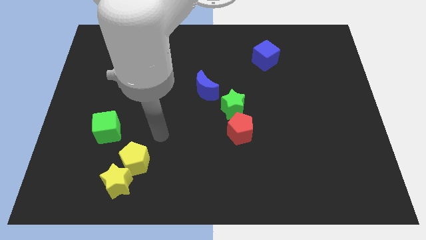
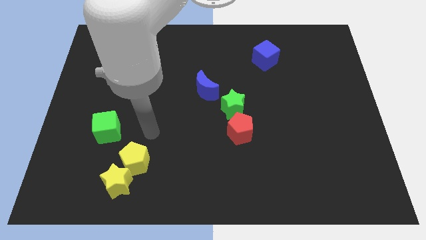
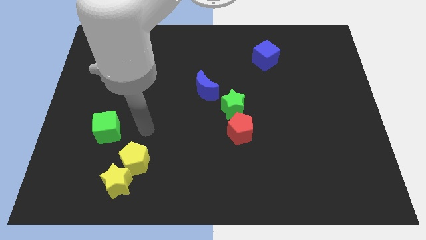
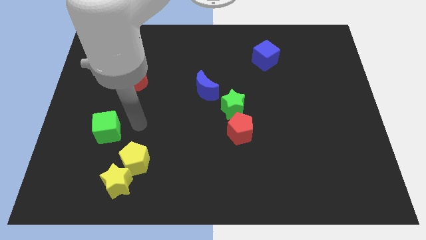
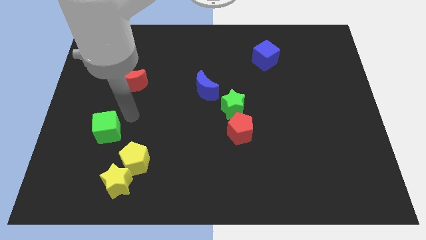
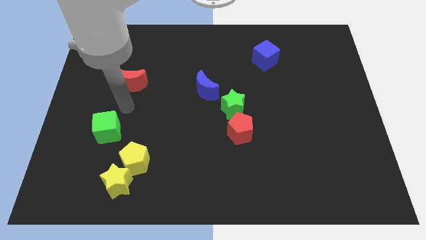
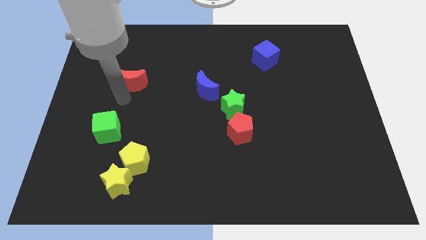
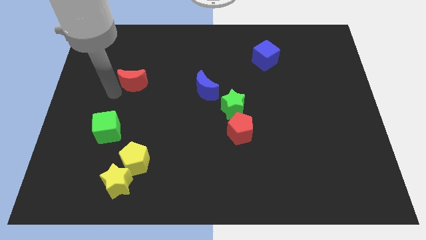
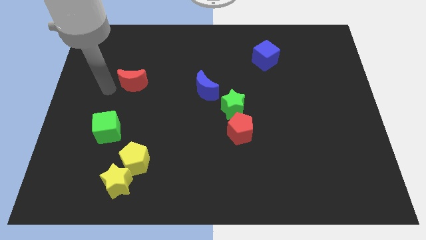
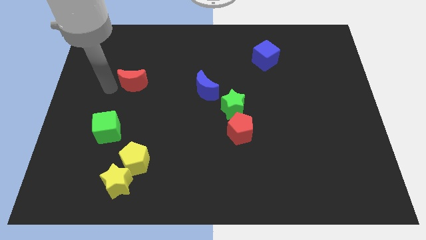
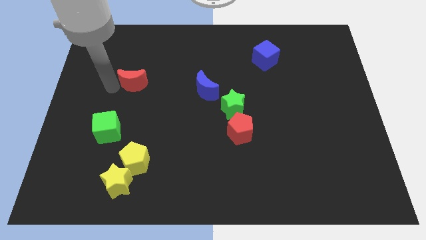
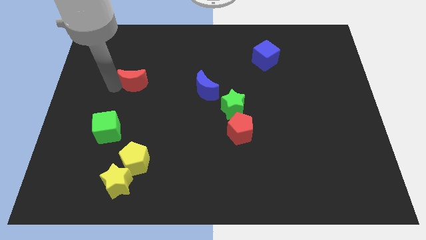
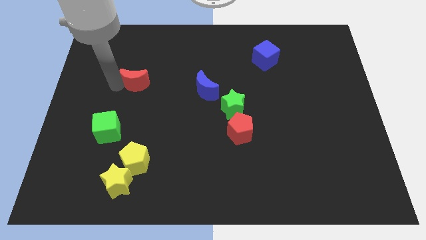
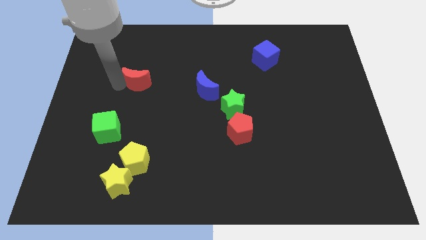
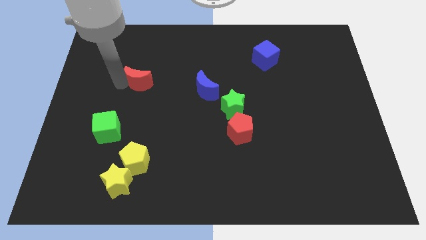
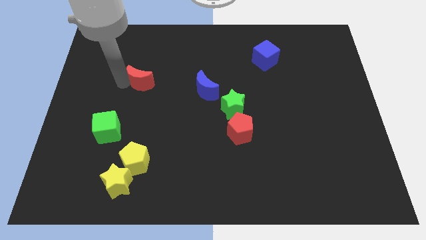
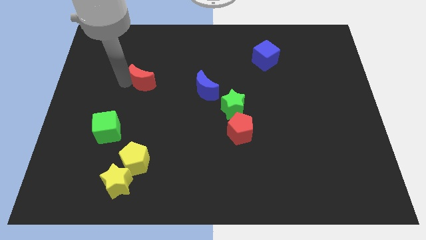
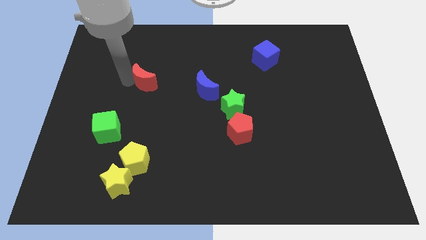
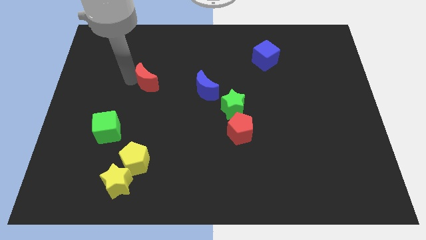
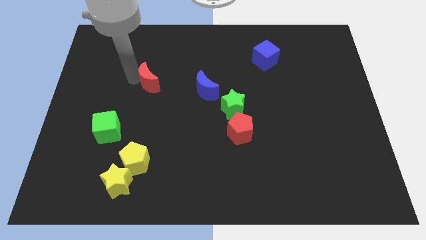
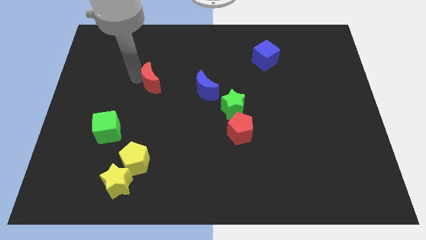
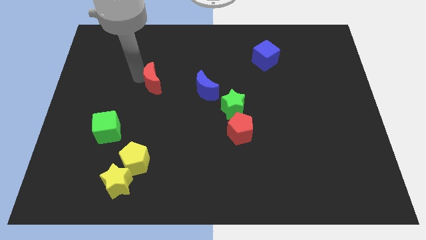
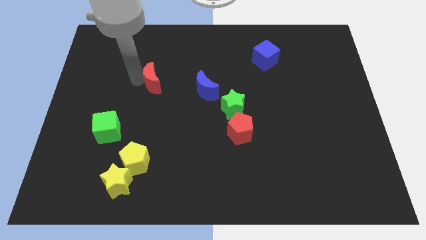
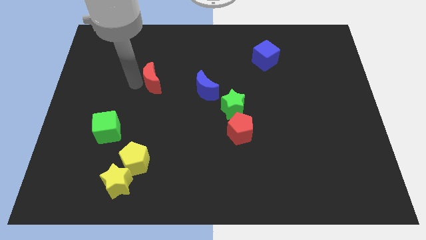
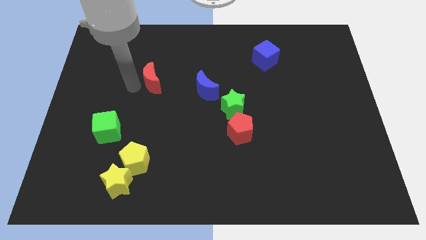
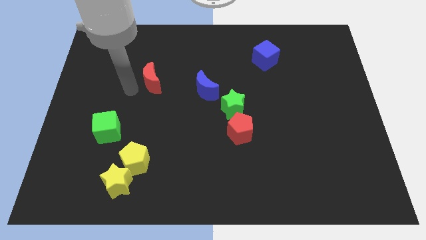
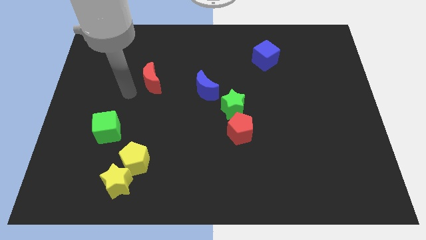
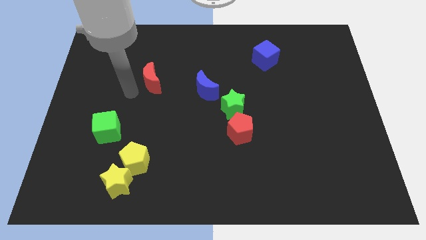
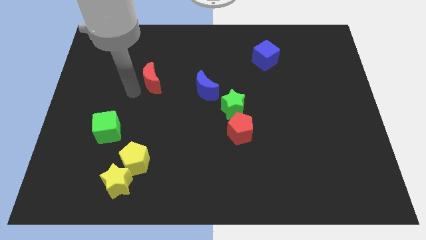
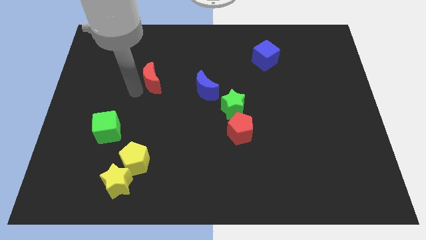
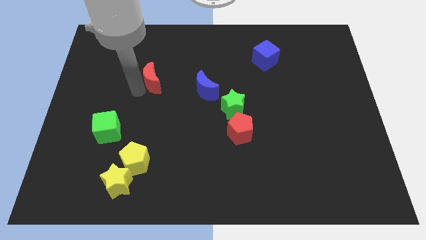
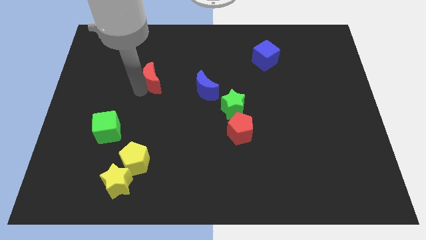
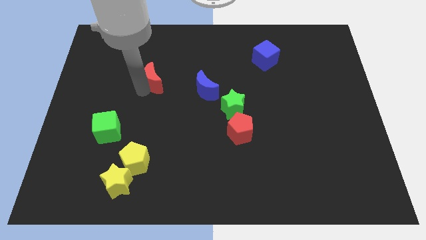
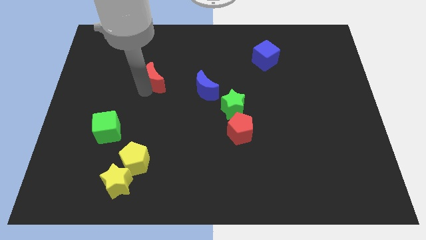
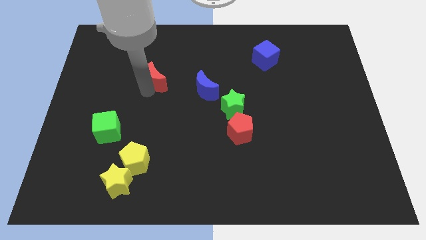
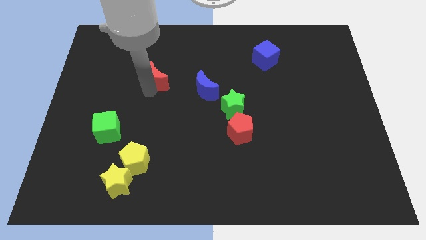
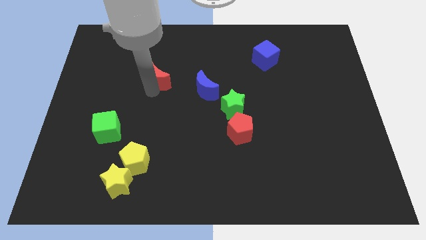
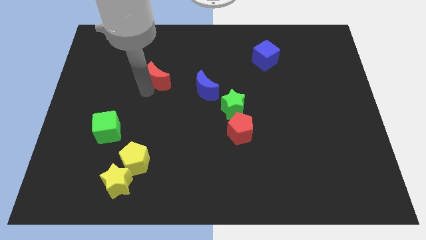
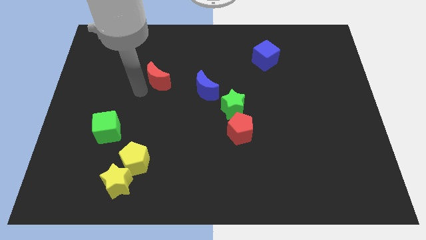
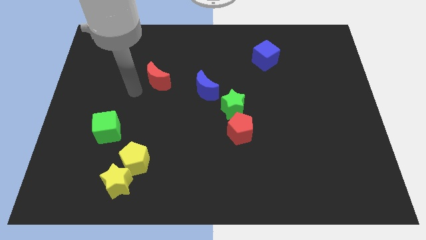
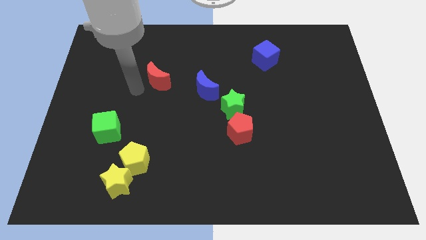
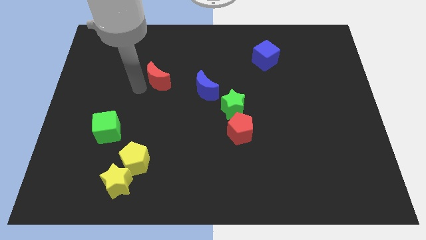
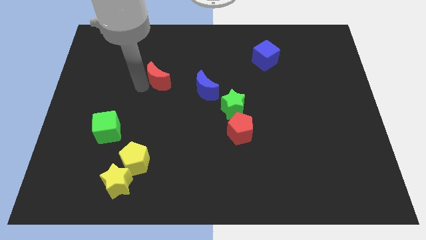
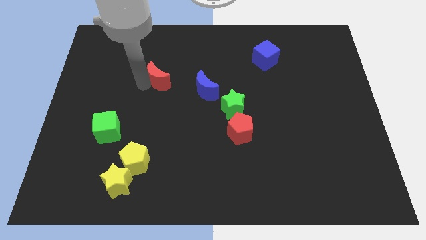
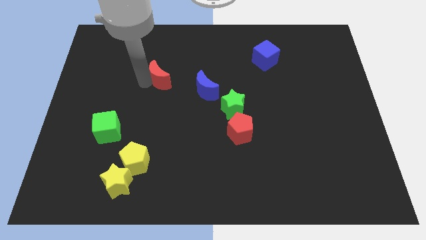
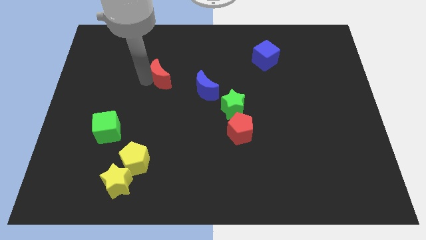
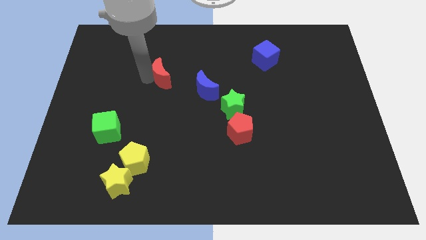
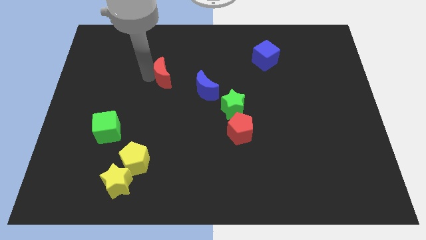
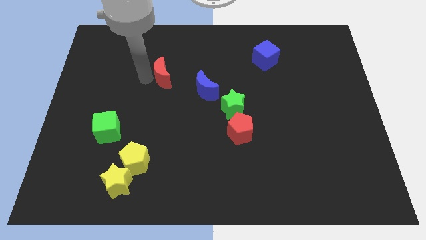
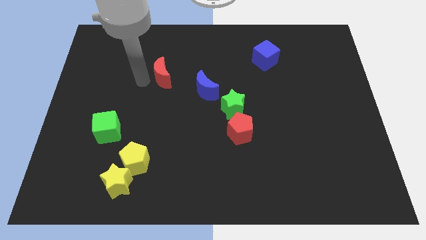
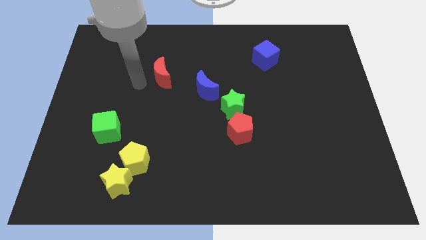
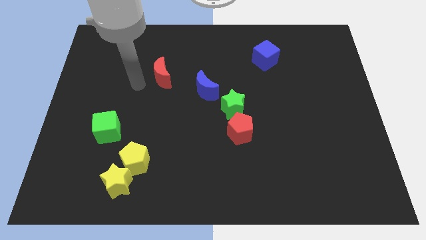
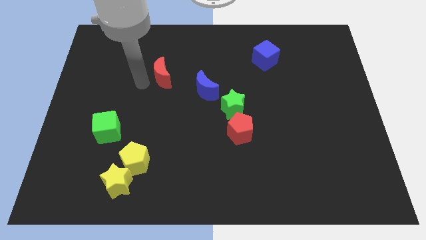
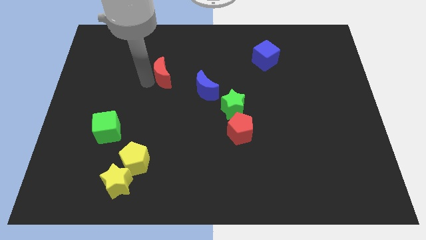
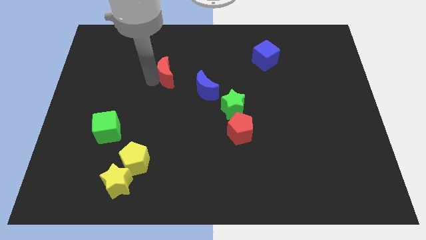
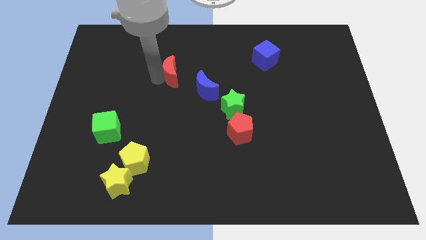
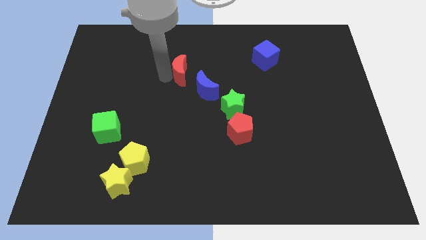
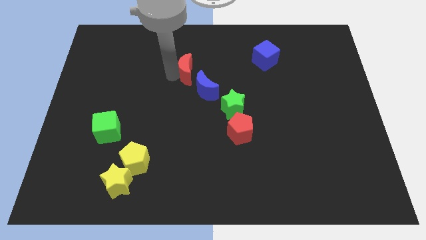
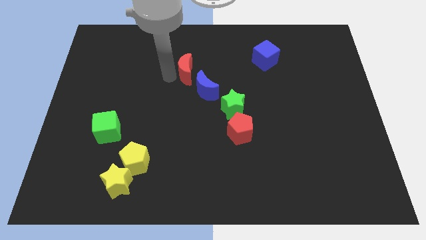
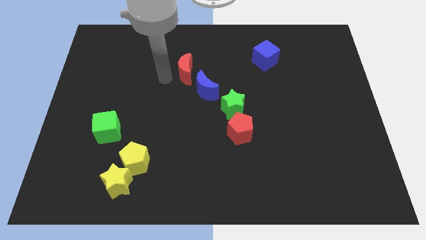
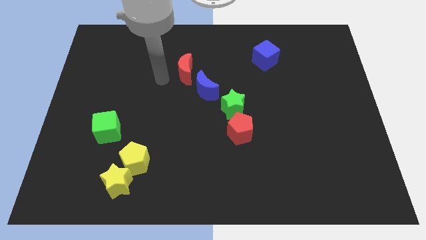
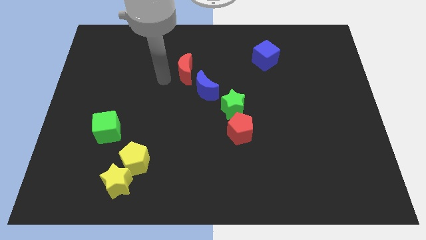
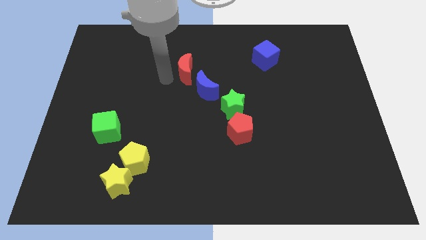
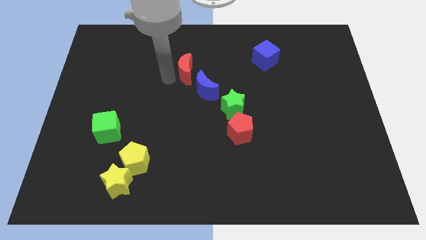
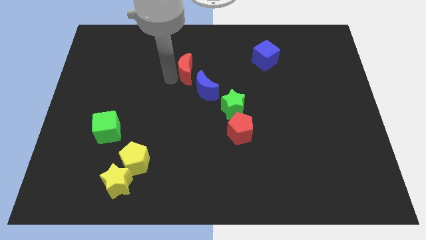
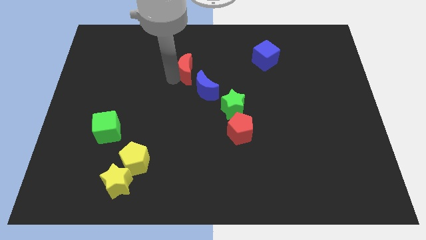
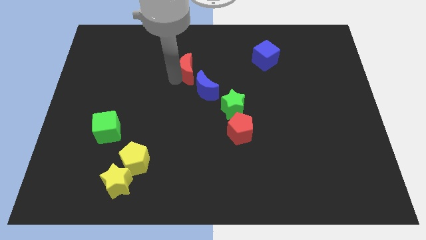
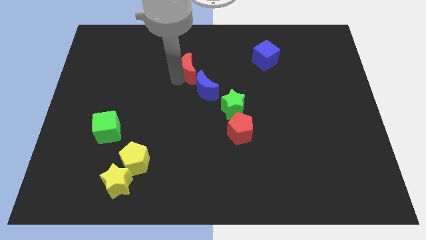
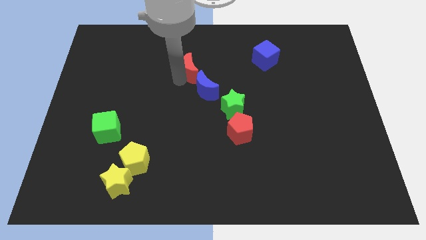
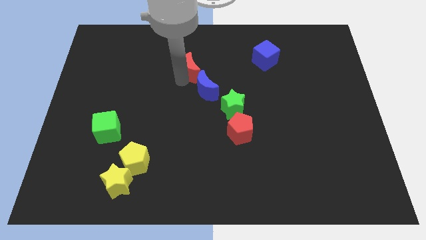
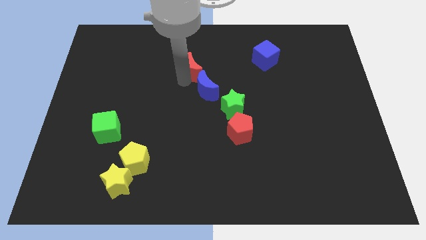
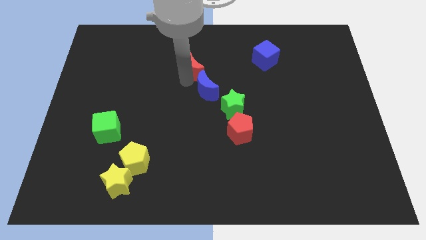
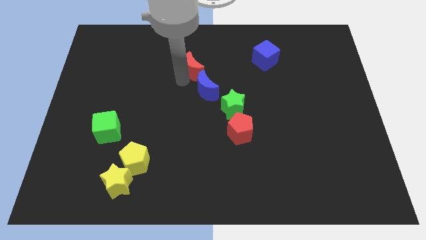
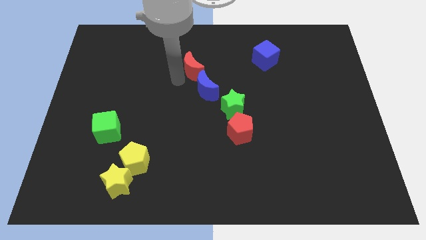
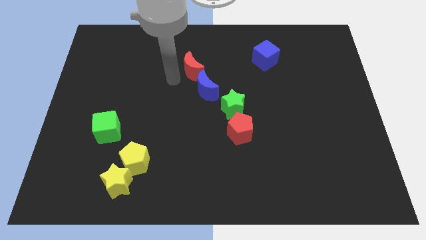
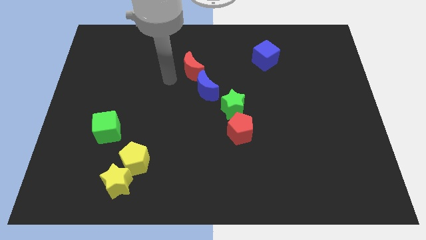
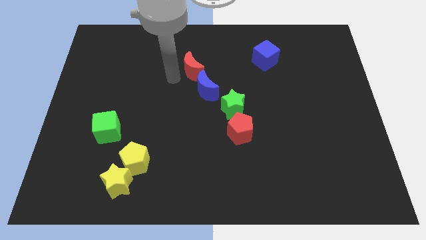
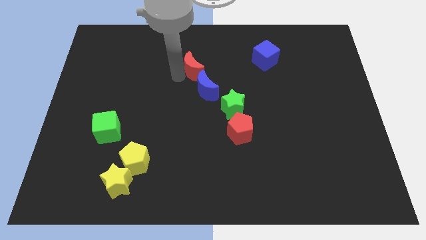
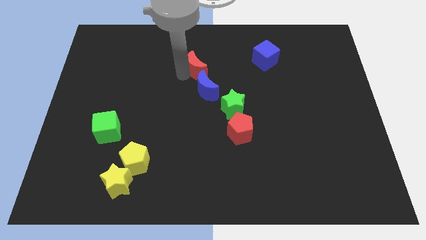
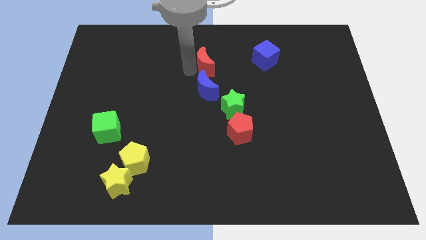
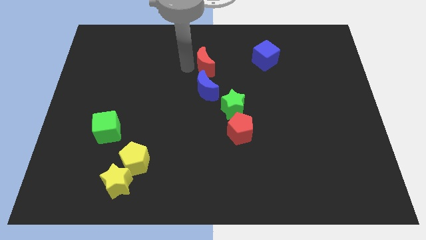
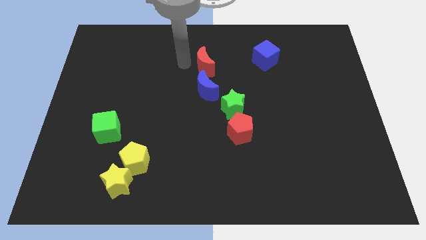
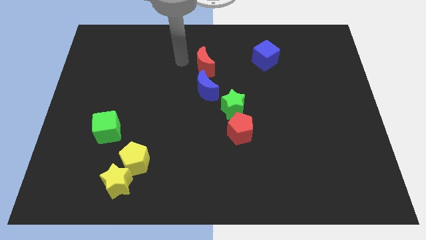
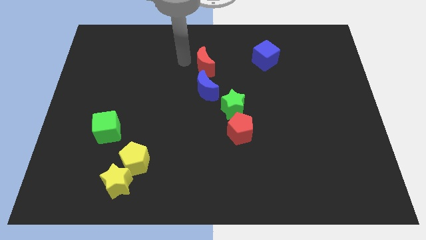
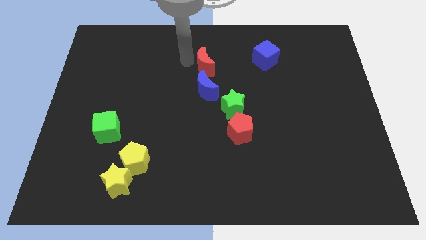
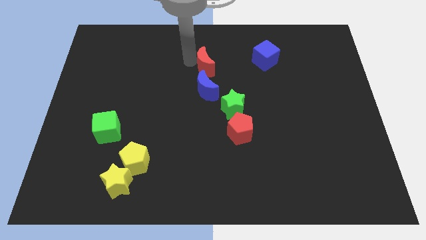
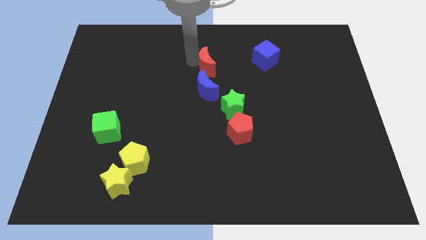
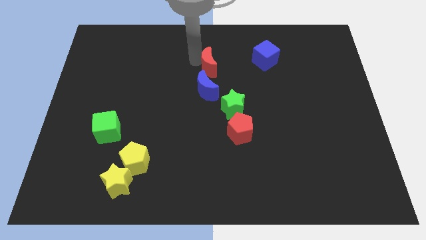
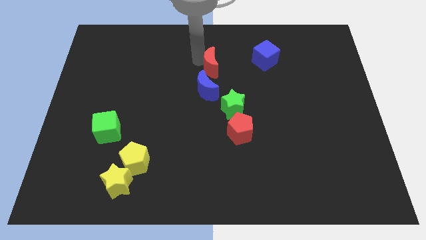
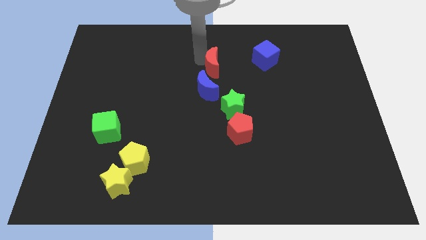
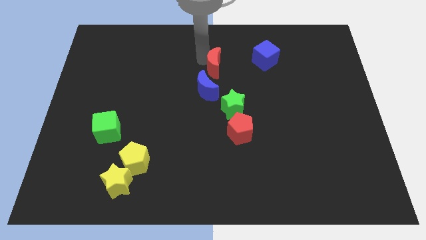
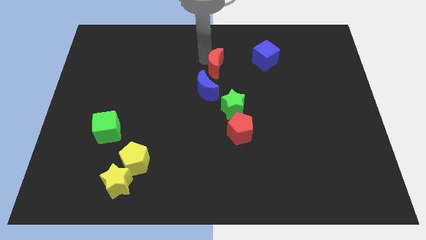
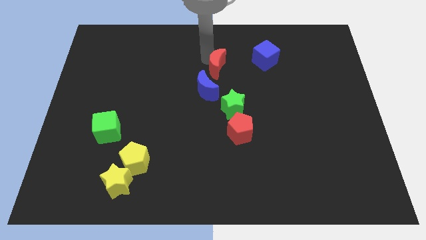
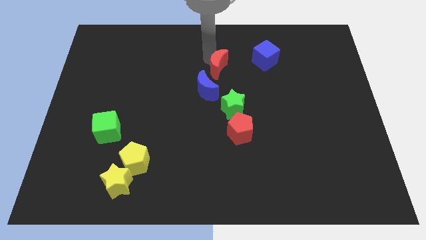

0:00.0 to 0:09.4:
move the red moon to the right
